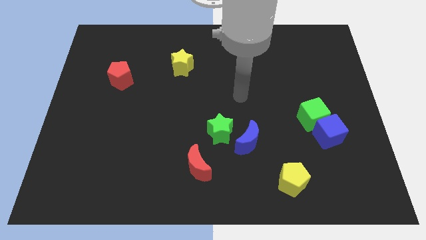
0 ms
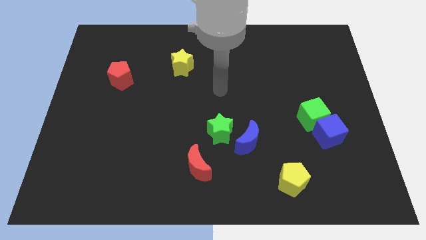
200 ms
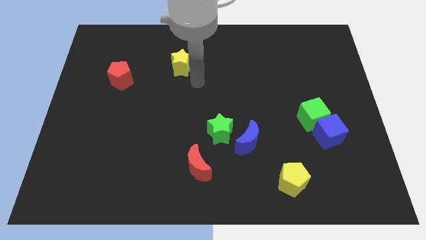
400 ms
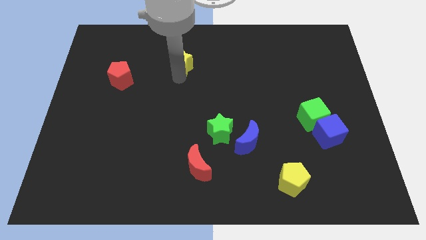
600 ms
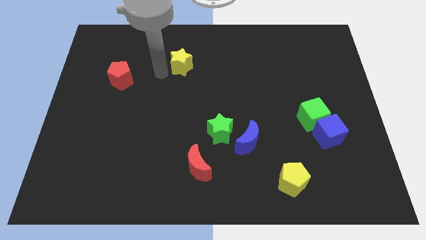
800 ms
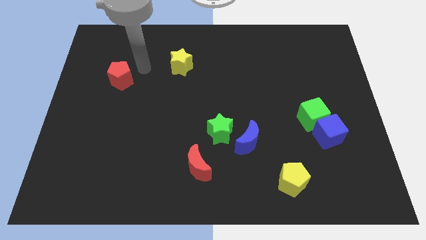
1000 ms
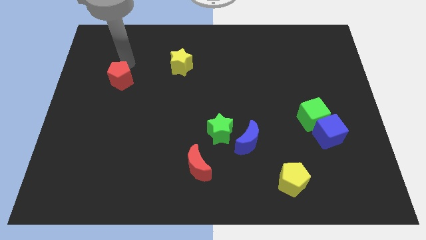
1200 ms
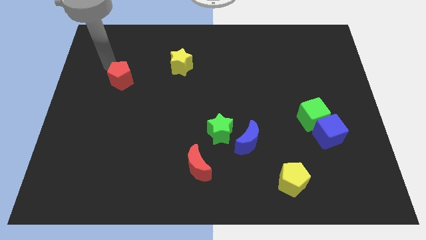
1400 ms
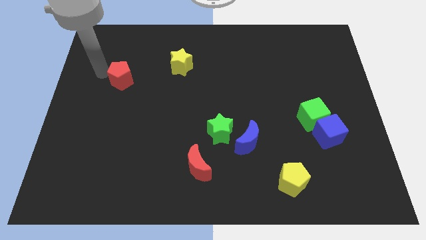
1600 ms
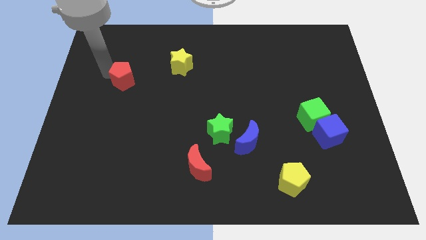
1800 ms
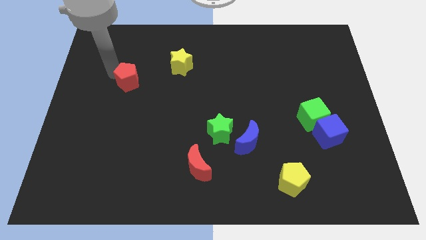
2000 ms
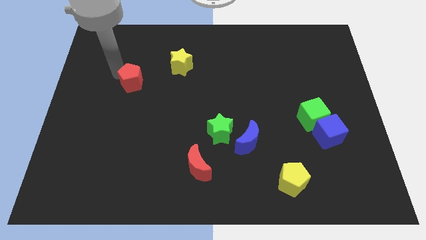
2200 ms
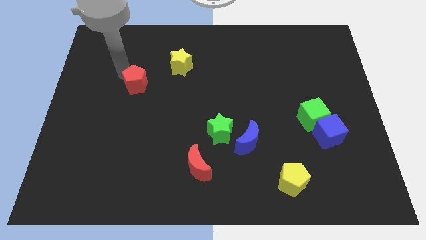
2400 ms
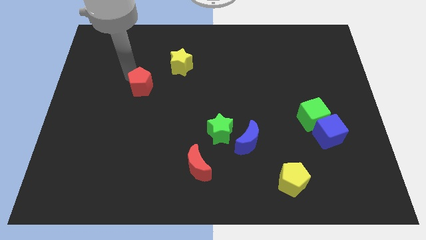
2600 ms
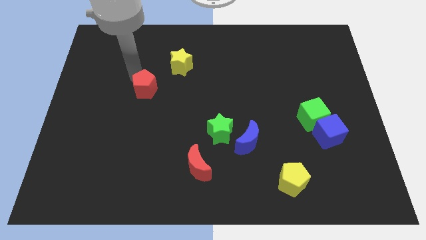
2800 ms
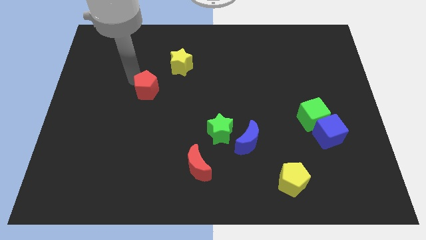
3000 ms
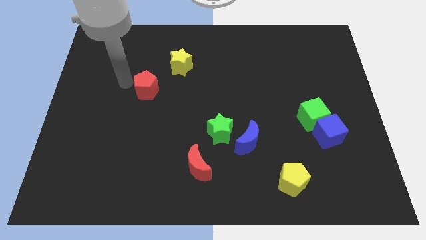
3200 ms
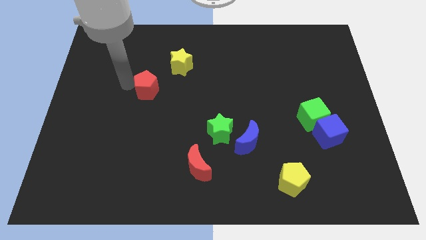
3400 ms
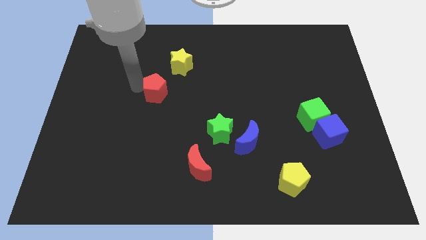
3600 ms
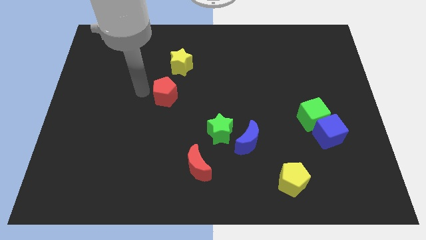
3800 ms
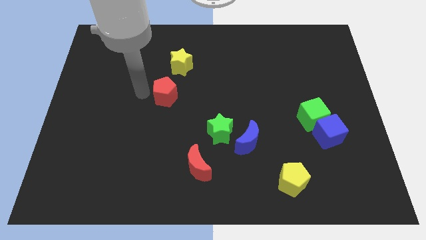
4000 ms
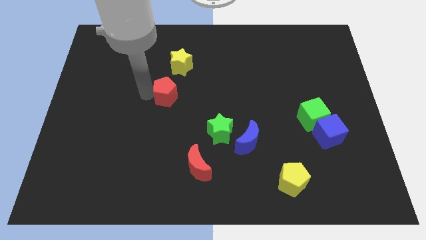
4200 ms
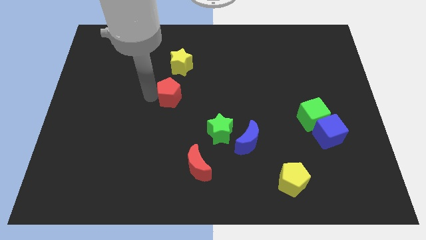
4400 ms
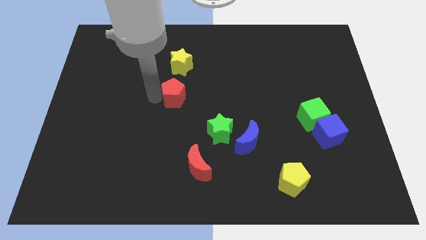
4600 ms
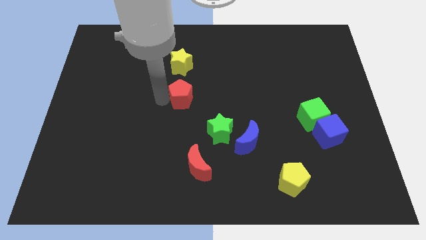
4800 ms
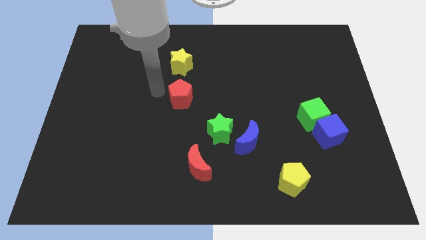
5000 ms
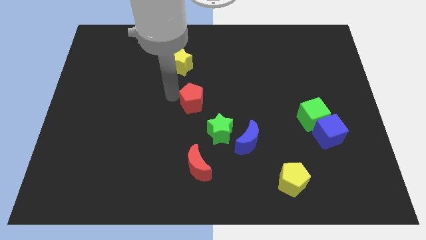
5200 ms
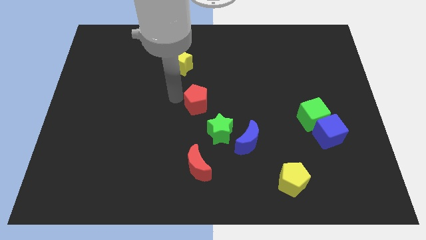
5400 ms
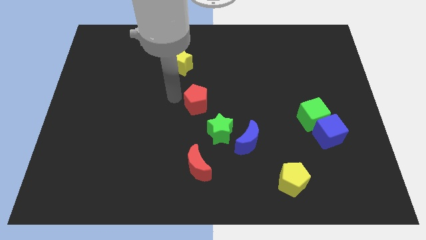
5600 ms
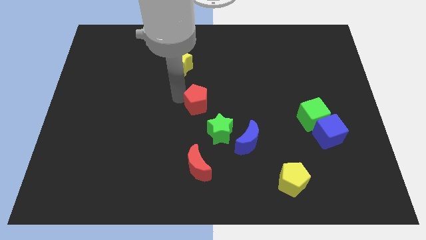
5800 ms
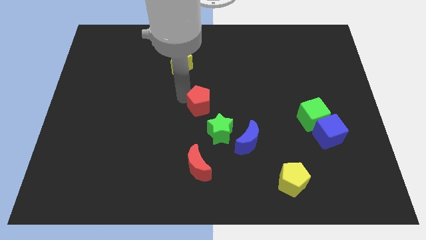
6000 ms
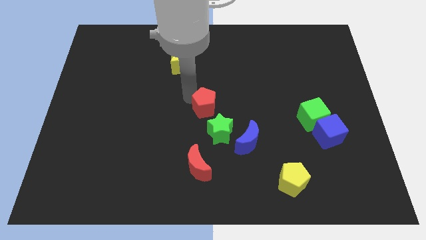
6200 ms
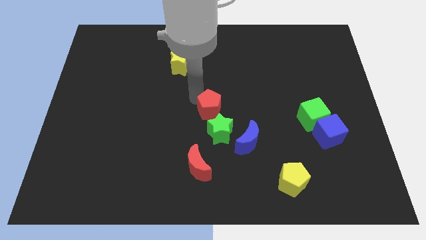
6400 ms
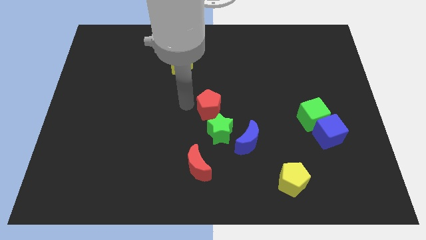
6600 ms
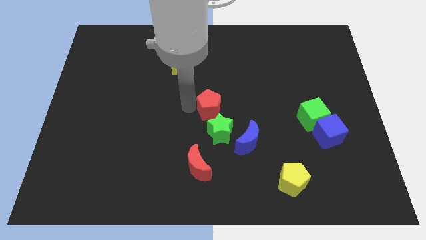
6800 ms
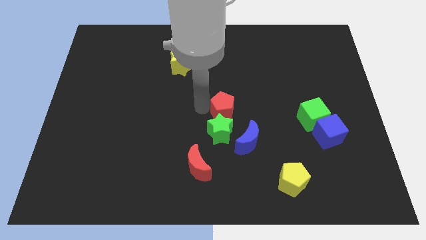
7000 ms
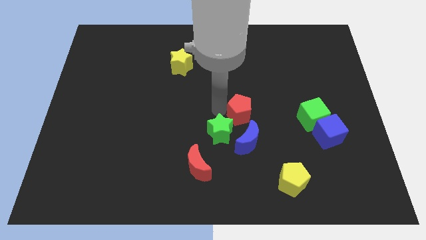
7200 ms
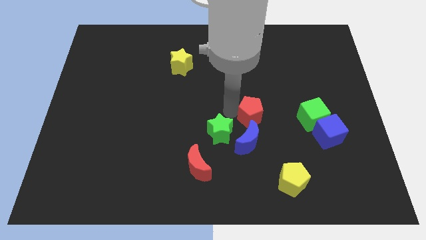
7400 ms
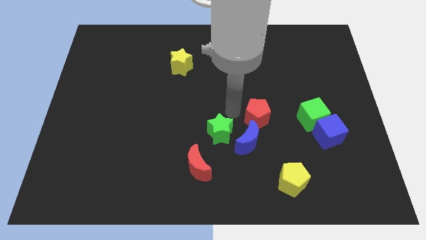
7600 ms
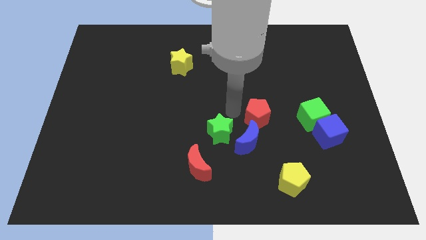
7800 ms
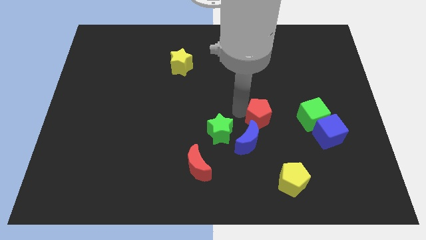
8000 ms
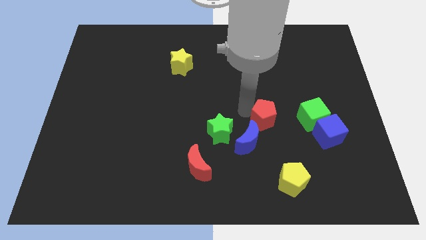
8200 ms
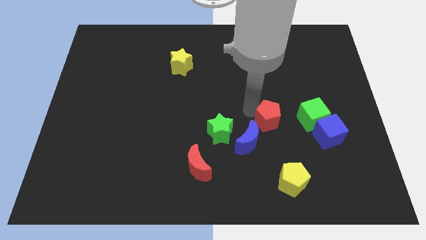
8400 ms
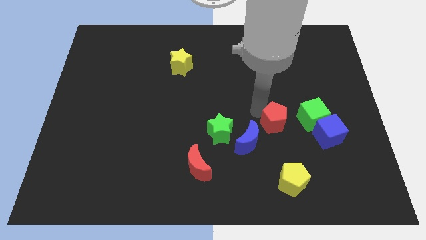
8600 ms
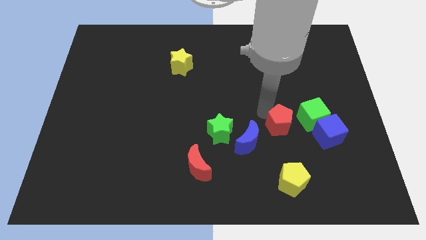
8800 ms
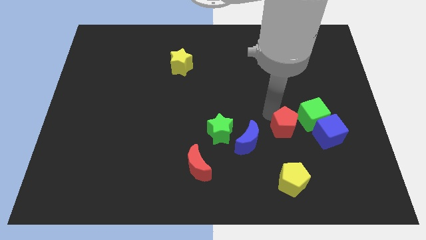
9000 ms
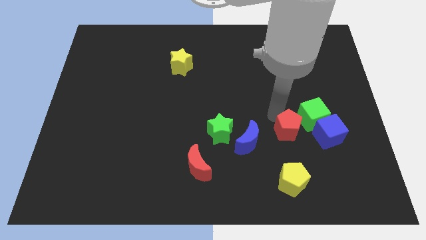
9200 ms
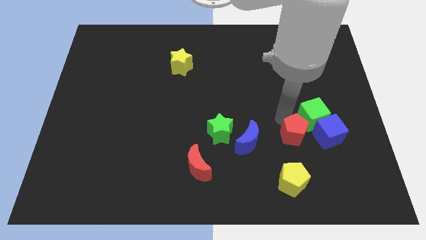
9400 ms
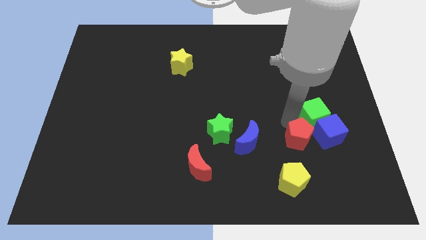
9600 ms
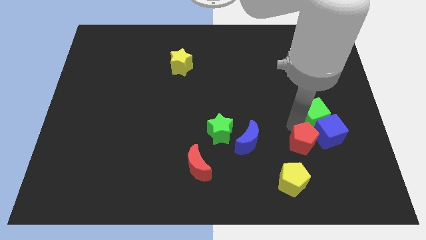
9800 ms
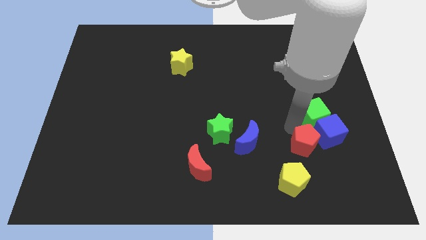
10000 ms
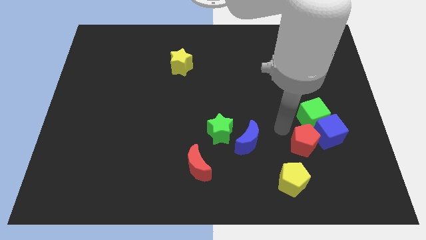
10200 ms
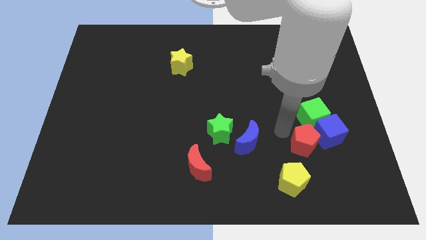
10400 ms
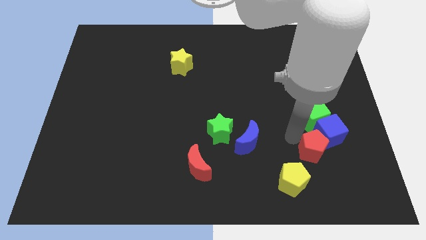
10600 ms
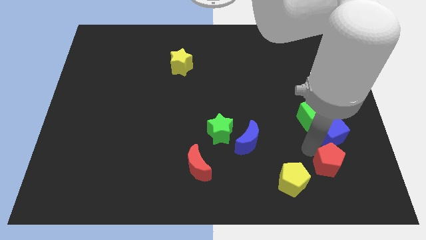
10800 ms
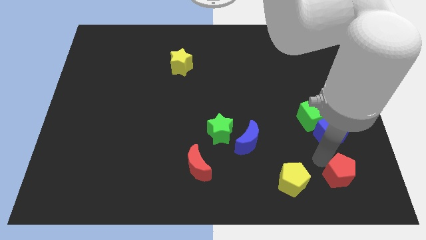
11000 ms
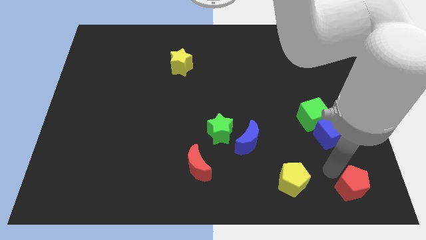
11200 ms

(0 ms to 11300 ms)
push the red pentagon to the bottom right of the board
